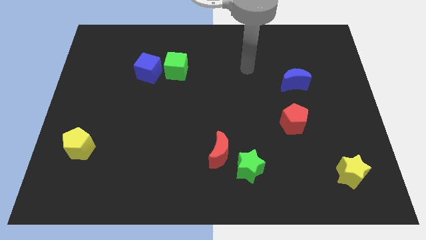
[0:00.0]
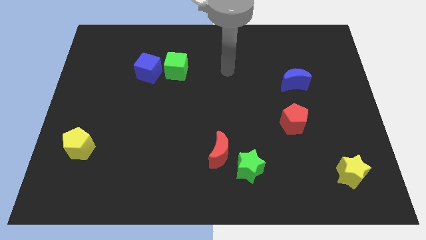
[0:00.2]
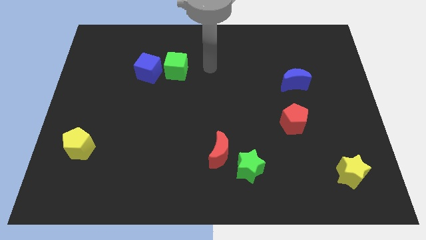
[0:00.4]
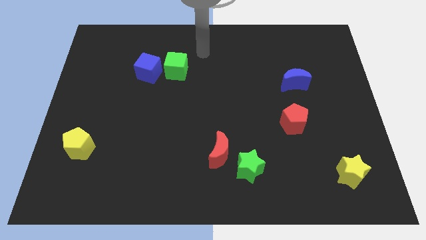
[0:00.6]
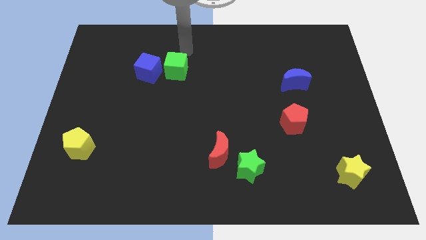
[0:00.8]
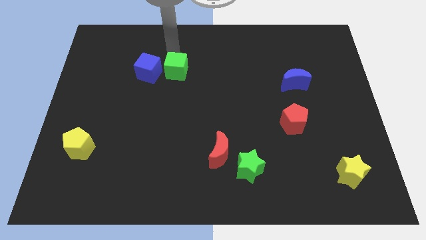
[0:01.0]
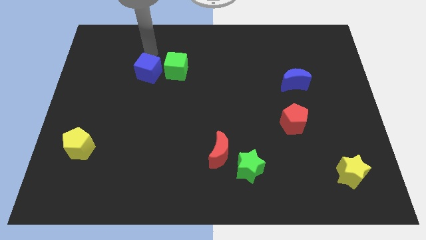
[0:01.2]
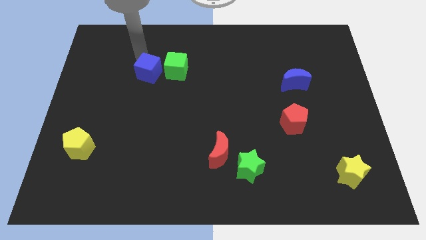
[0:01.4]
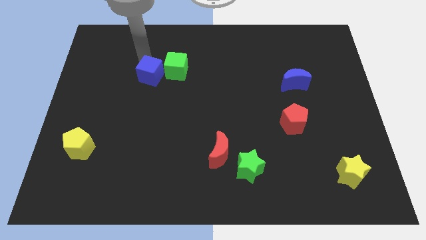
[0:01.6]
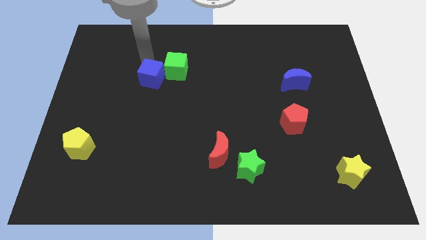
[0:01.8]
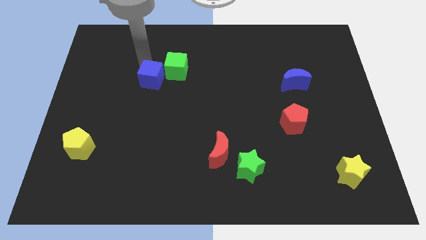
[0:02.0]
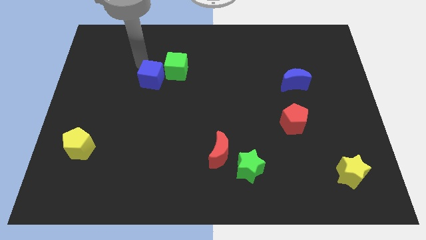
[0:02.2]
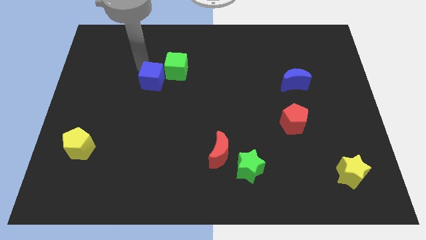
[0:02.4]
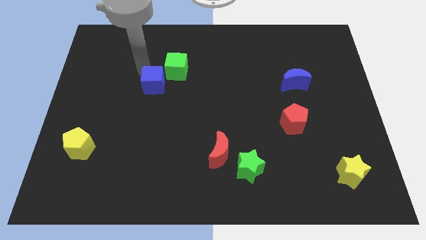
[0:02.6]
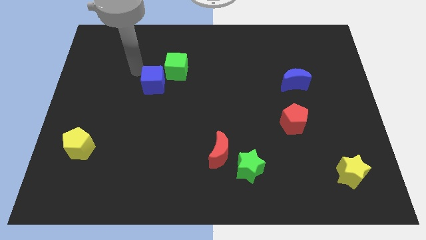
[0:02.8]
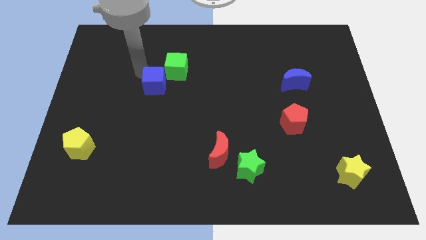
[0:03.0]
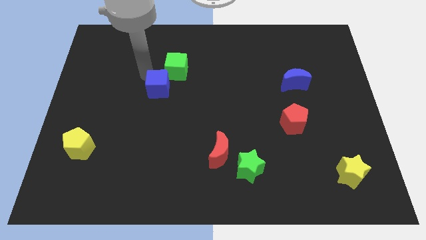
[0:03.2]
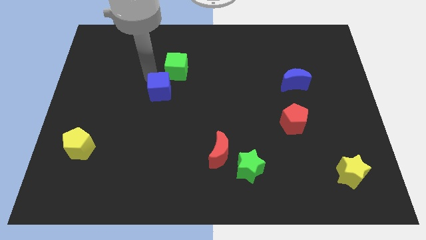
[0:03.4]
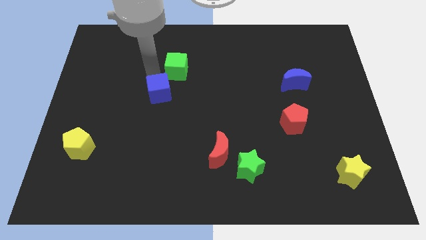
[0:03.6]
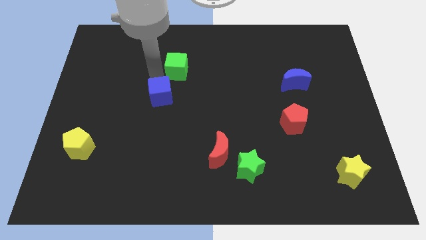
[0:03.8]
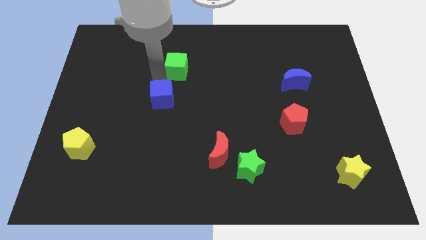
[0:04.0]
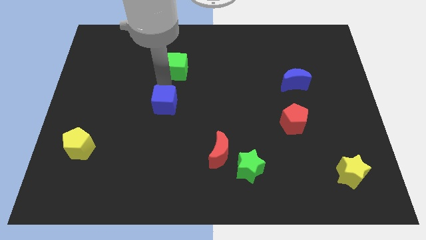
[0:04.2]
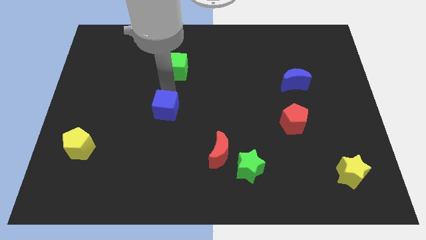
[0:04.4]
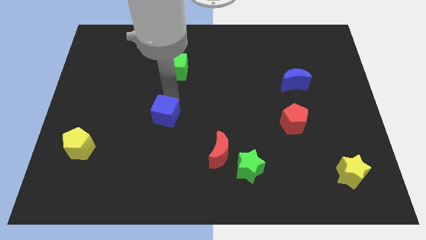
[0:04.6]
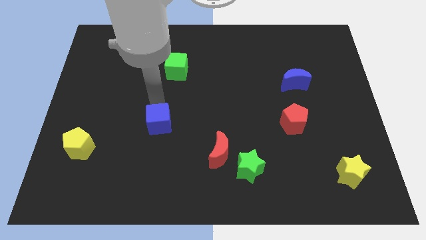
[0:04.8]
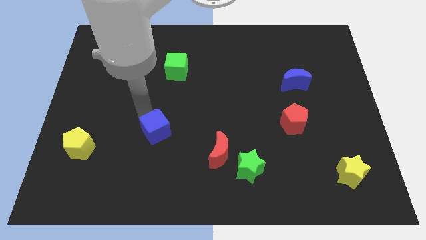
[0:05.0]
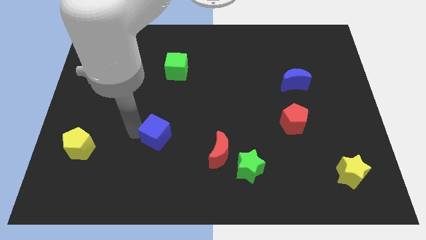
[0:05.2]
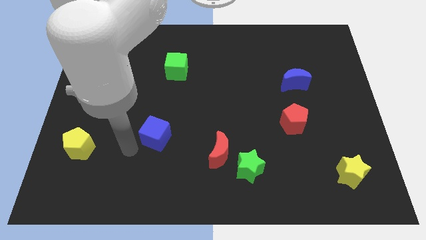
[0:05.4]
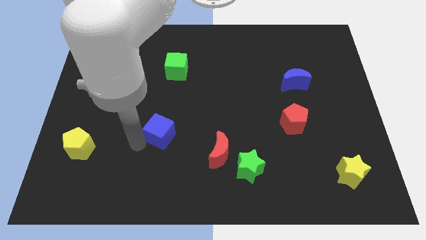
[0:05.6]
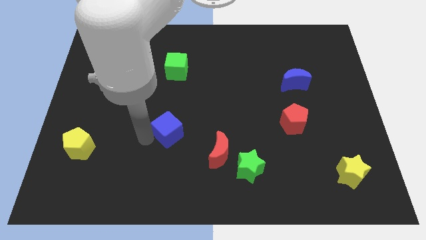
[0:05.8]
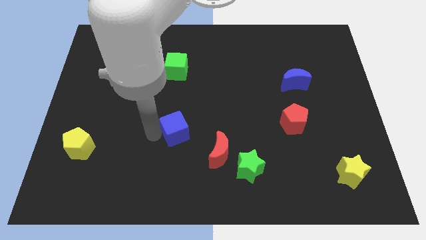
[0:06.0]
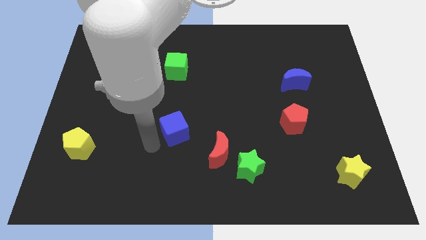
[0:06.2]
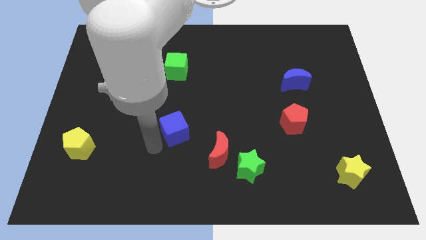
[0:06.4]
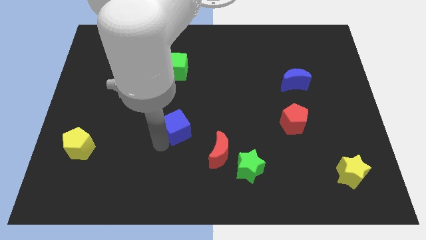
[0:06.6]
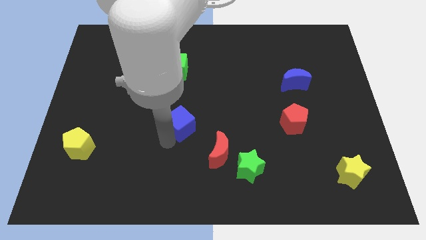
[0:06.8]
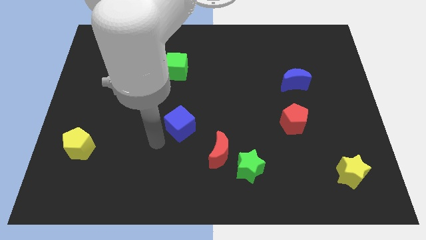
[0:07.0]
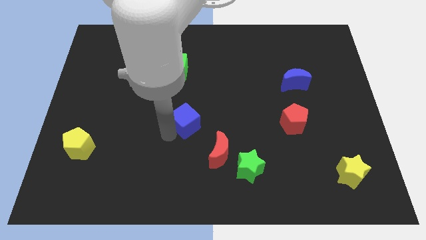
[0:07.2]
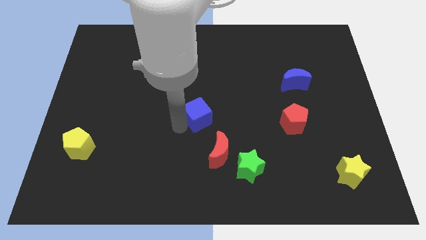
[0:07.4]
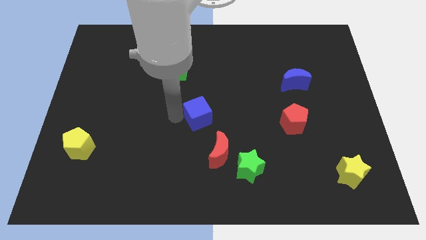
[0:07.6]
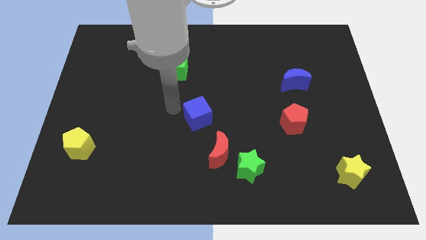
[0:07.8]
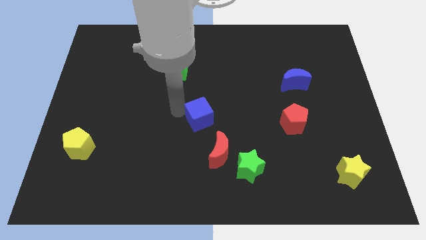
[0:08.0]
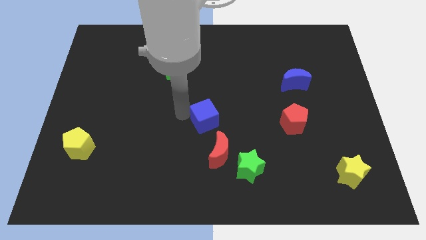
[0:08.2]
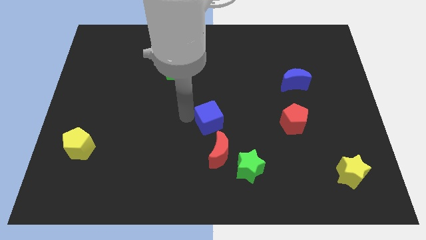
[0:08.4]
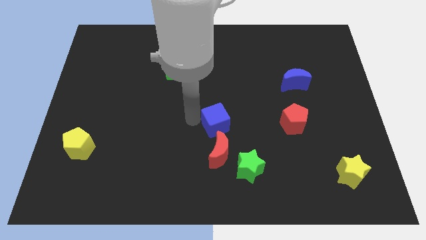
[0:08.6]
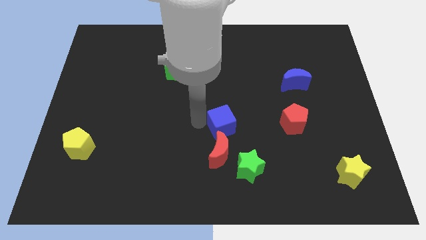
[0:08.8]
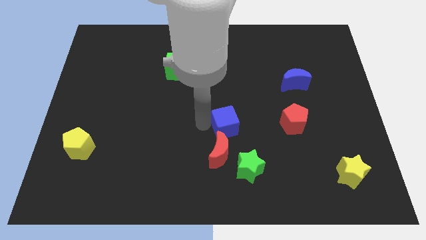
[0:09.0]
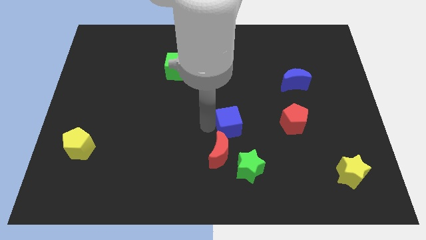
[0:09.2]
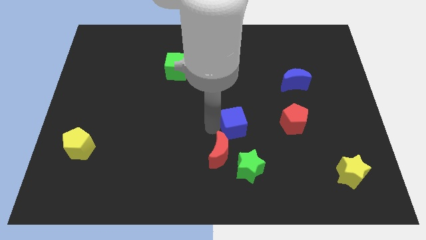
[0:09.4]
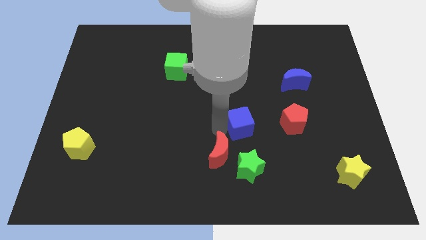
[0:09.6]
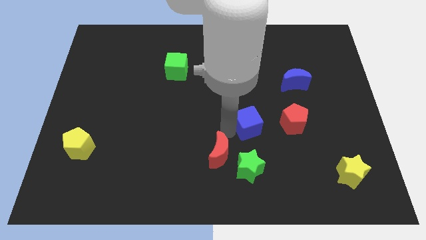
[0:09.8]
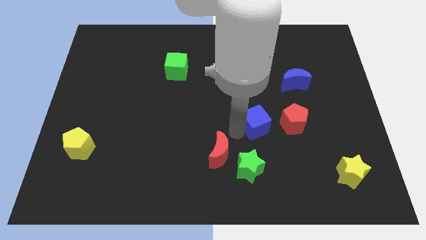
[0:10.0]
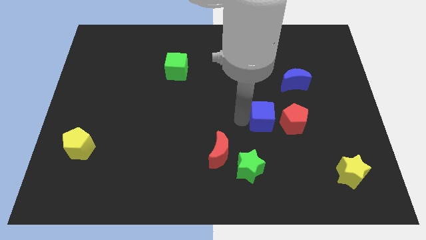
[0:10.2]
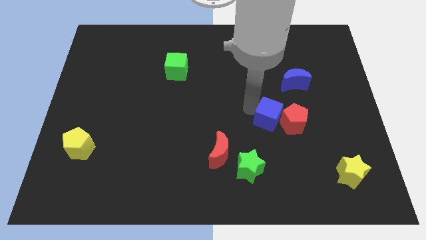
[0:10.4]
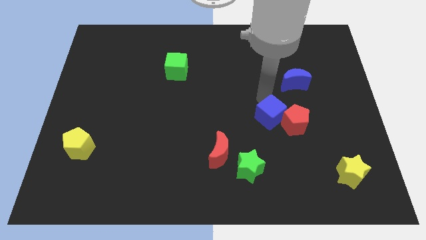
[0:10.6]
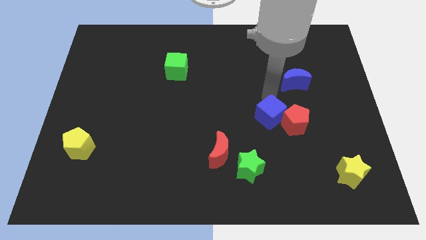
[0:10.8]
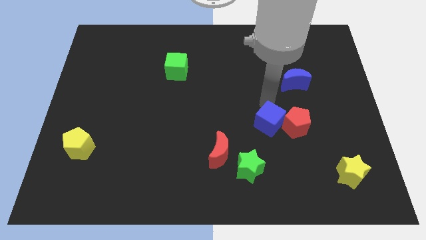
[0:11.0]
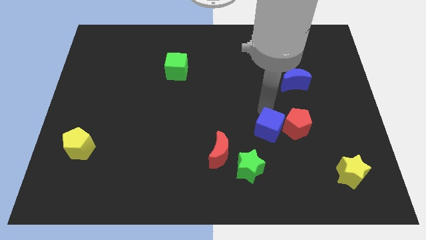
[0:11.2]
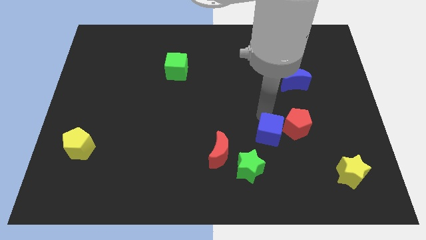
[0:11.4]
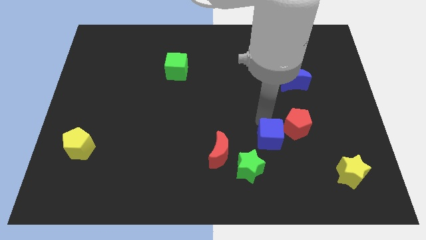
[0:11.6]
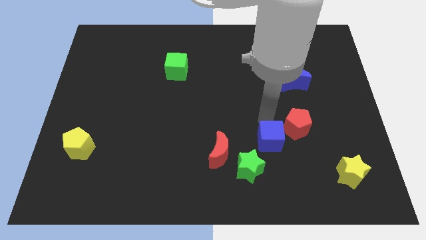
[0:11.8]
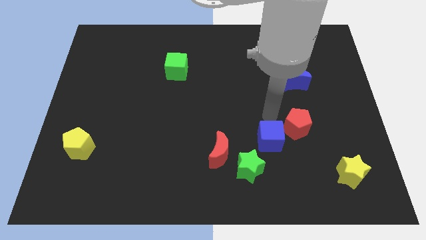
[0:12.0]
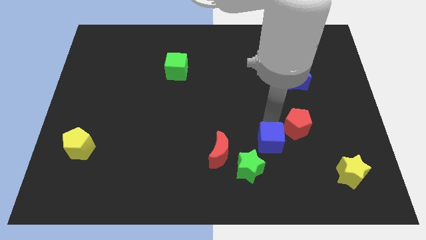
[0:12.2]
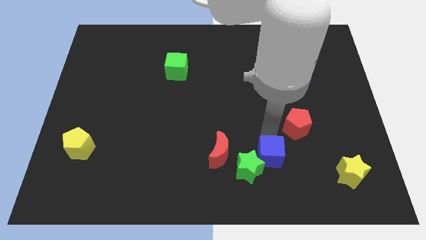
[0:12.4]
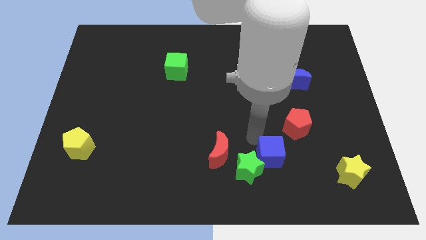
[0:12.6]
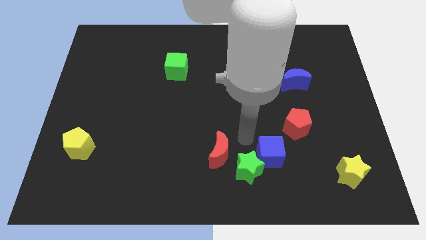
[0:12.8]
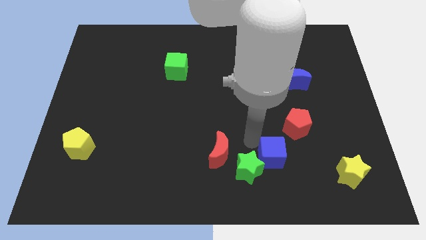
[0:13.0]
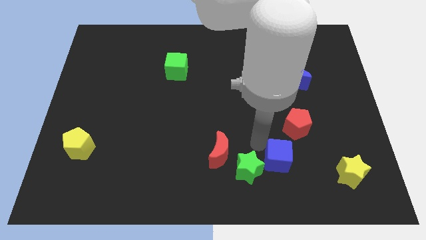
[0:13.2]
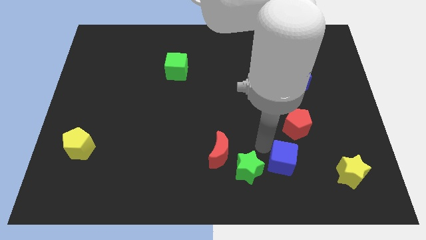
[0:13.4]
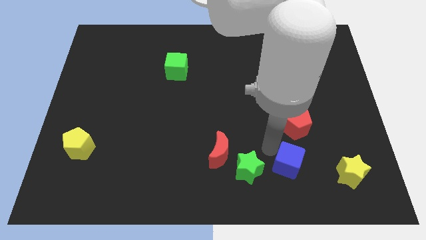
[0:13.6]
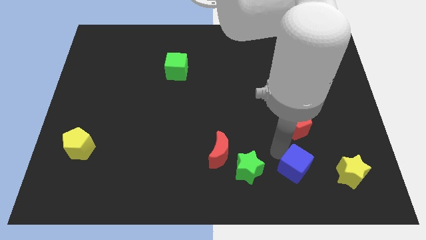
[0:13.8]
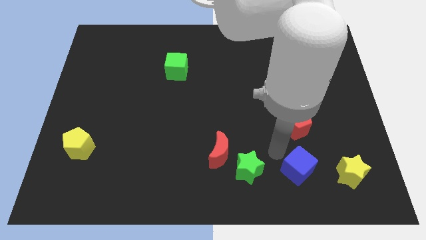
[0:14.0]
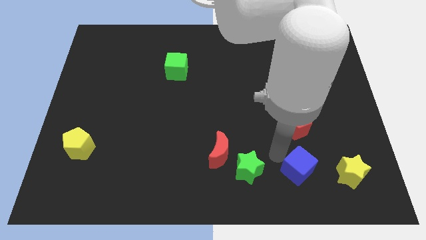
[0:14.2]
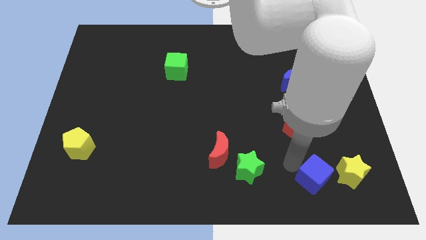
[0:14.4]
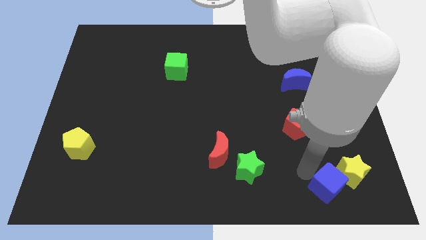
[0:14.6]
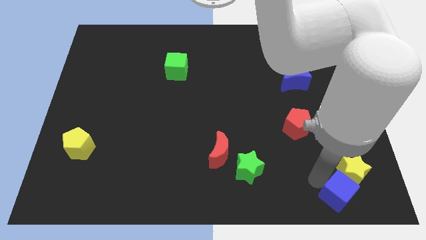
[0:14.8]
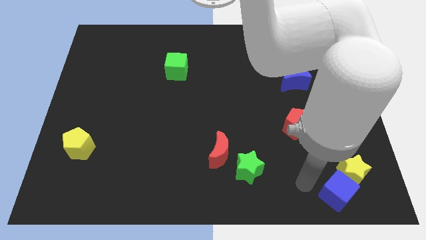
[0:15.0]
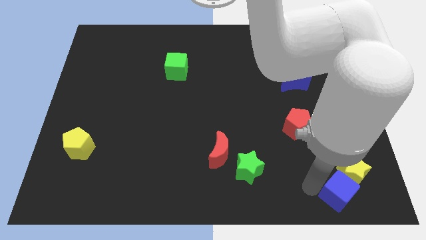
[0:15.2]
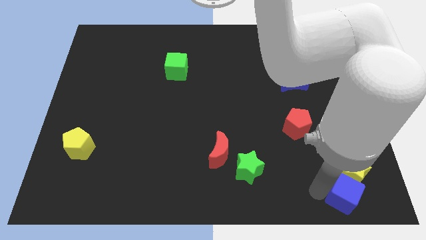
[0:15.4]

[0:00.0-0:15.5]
slide the blue cube to the bottom right of the board
